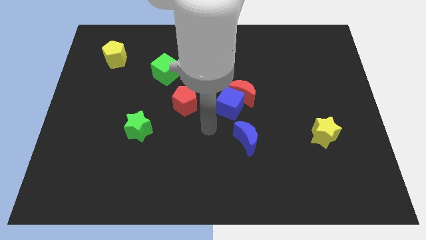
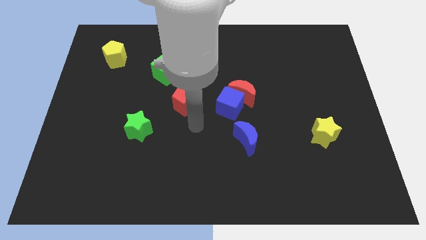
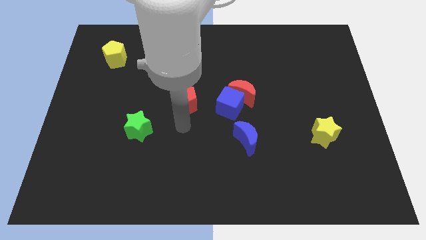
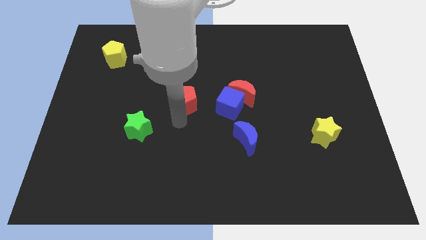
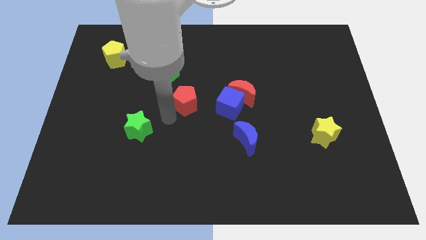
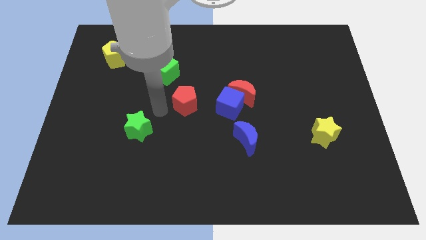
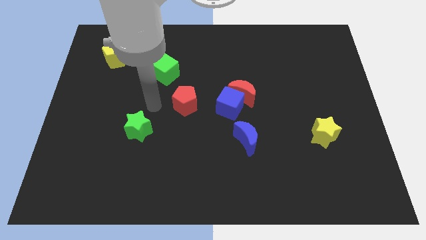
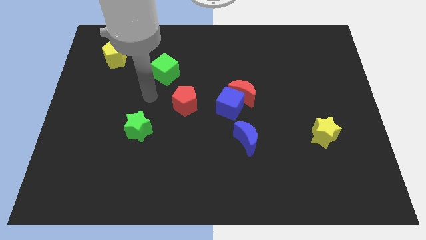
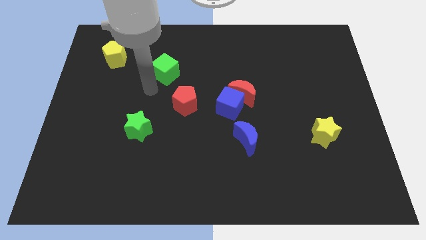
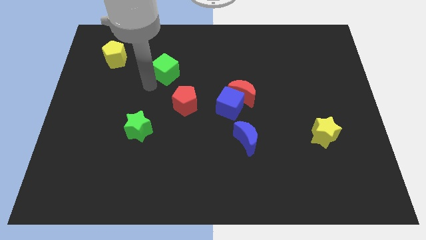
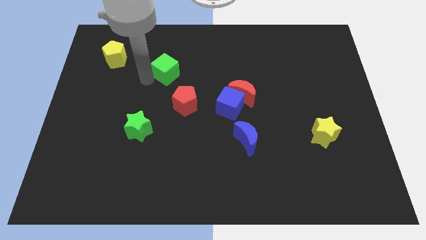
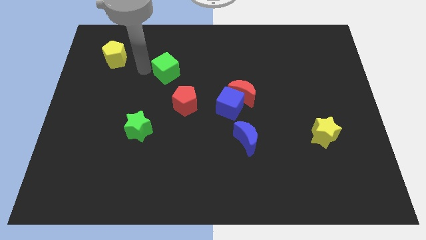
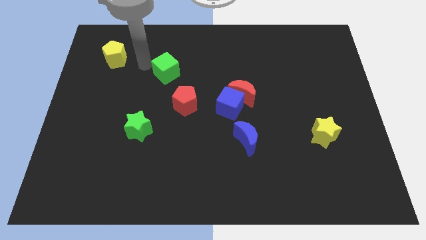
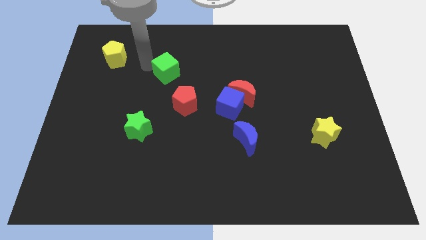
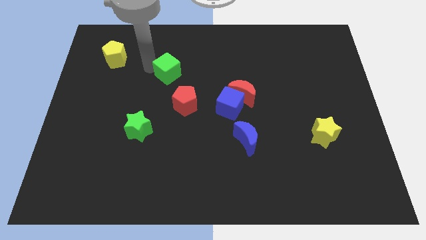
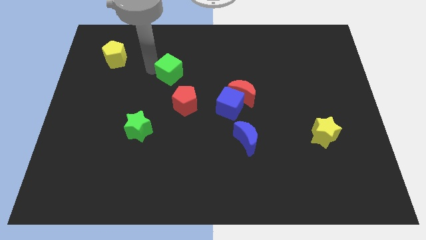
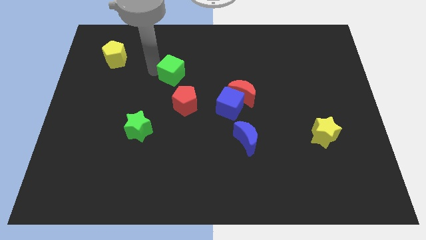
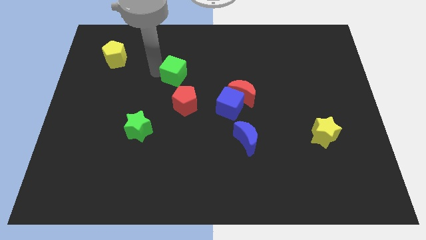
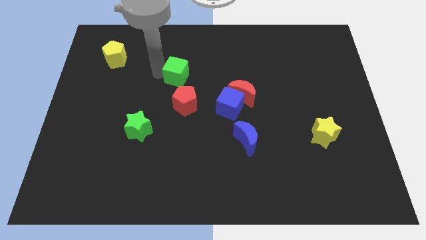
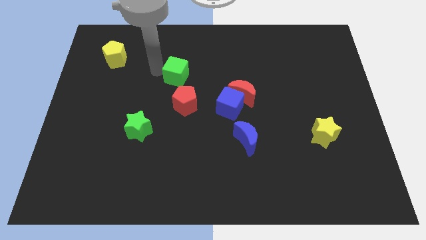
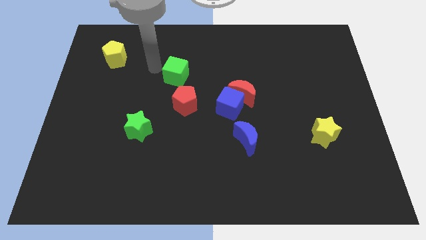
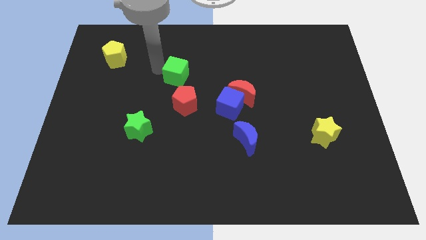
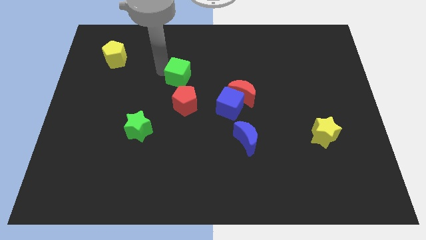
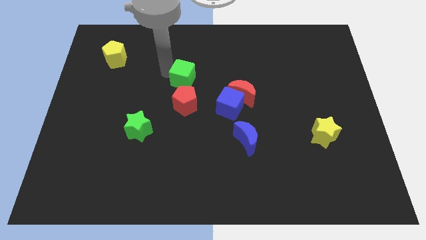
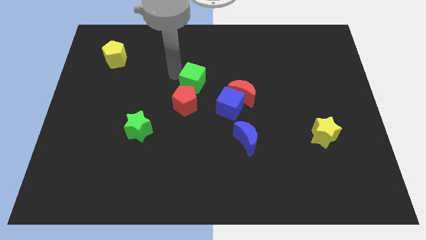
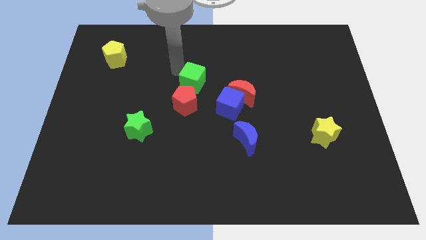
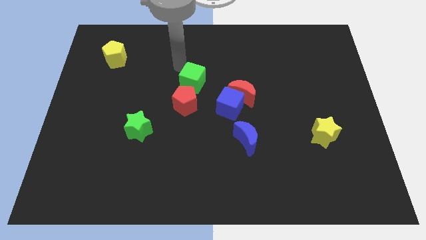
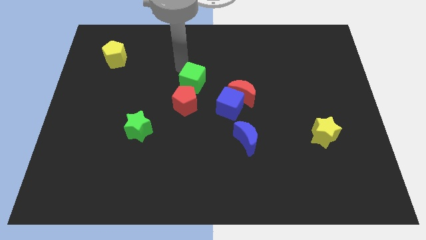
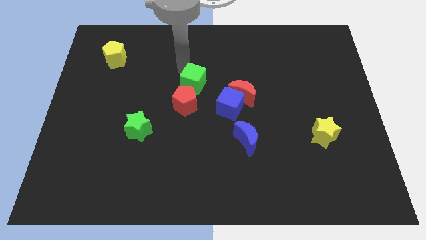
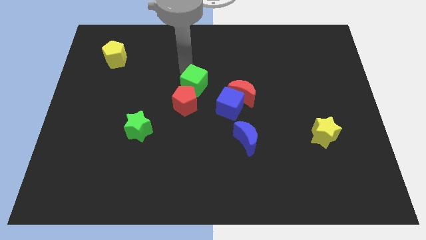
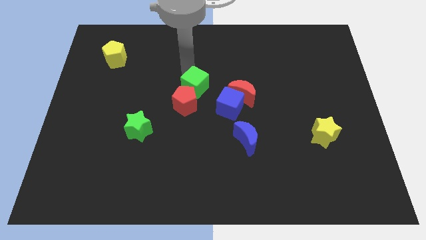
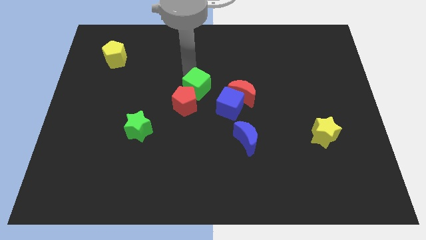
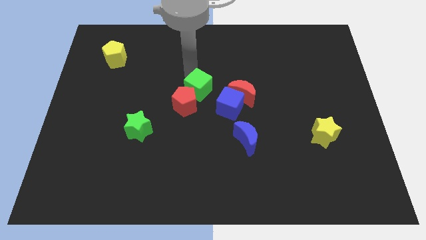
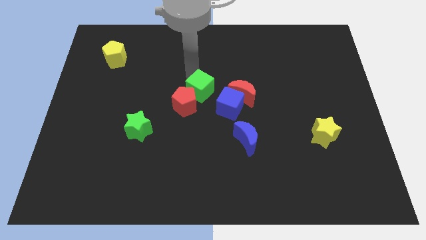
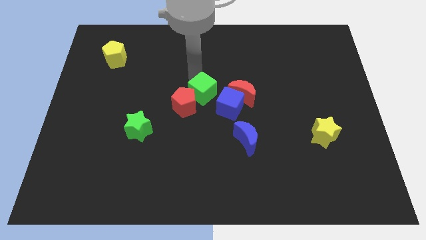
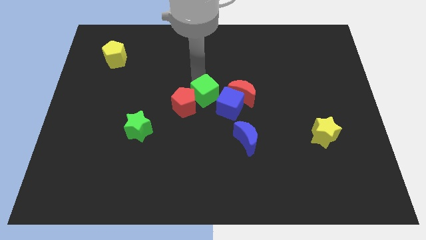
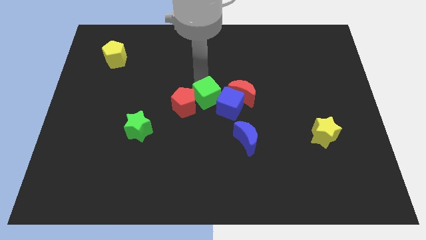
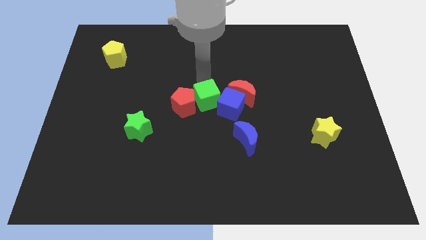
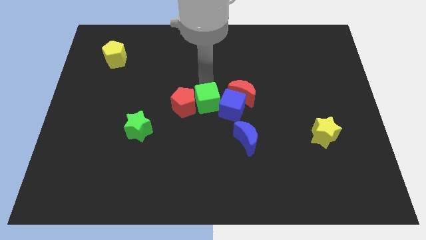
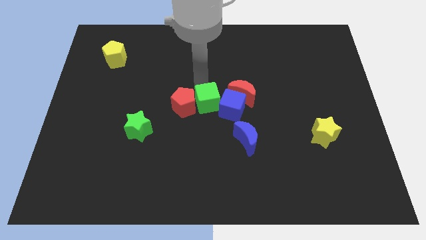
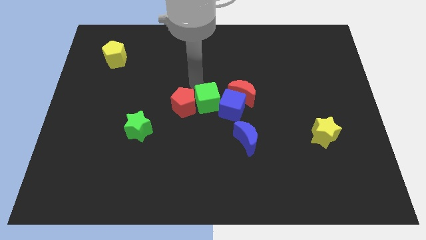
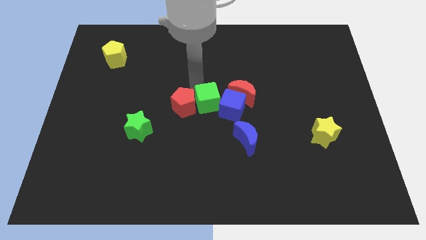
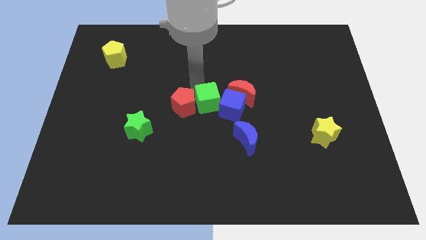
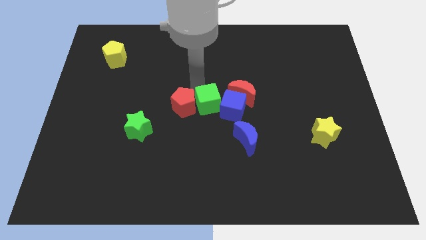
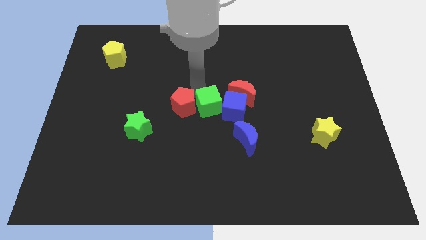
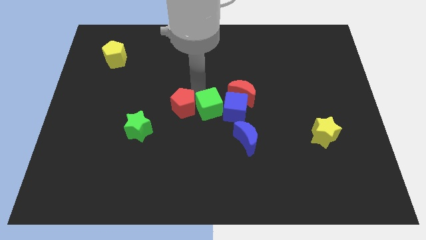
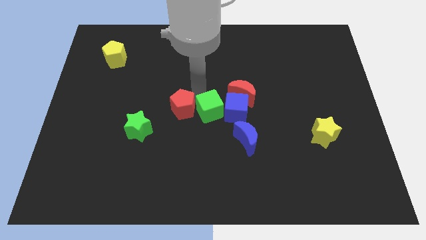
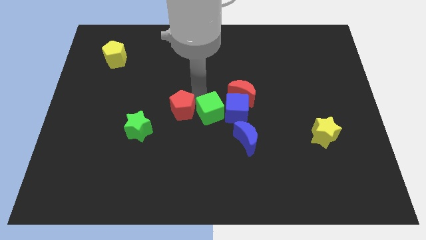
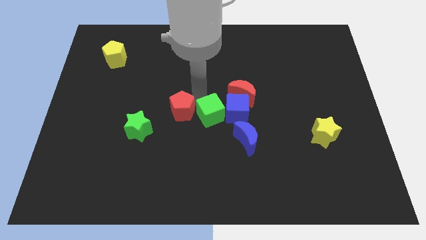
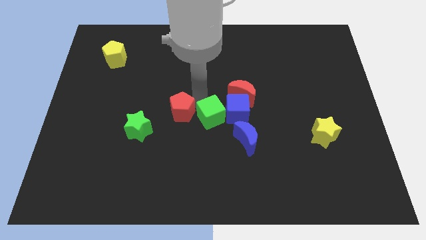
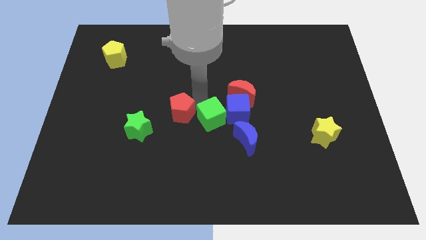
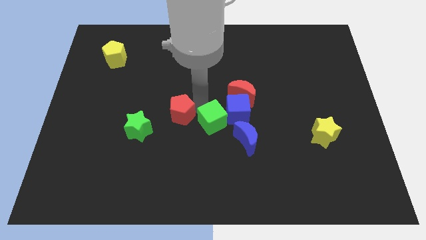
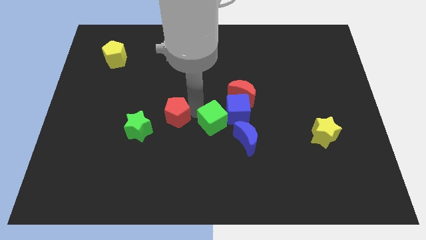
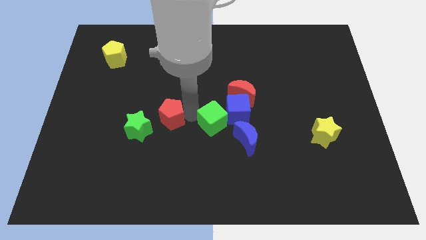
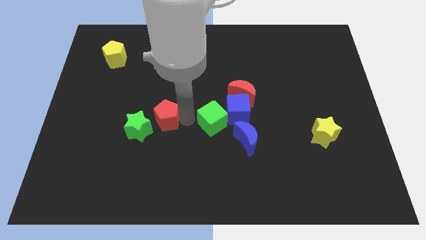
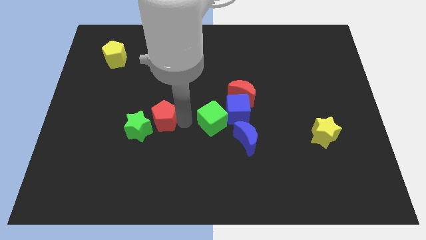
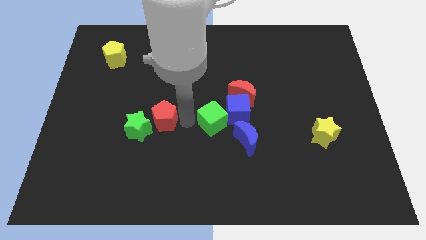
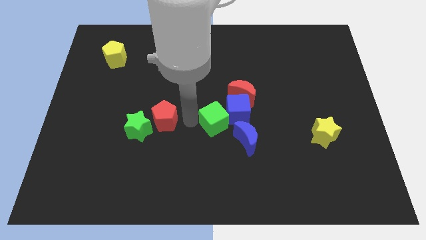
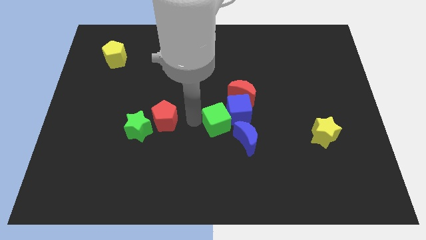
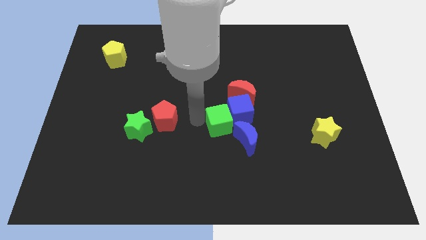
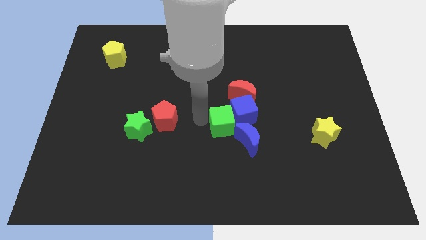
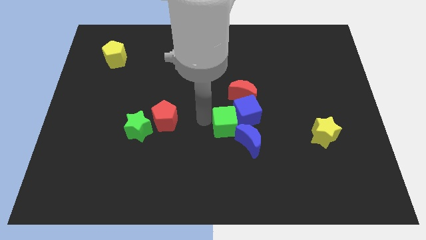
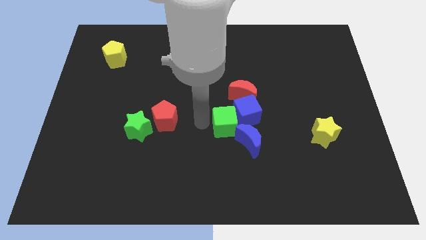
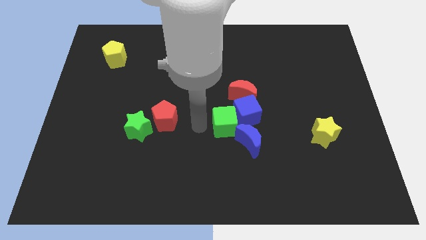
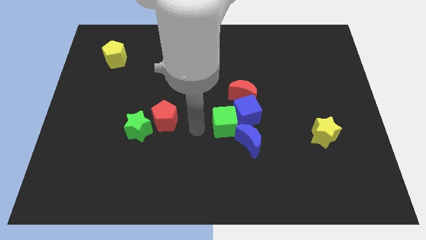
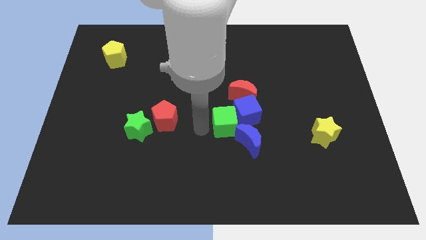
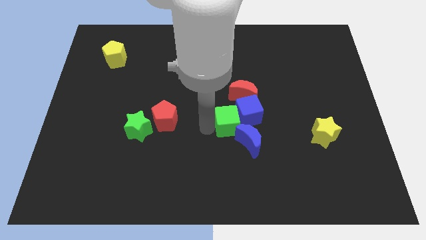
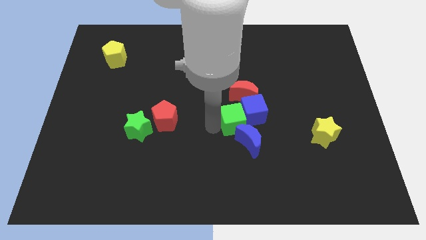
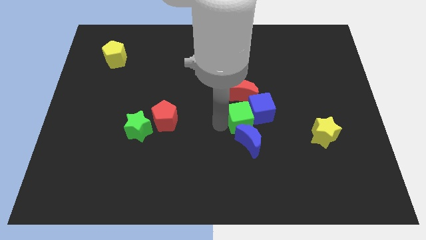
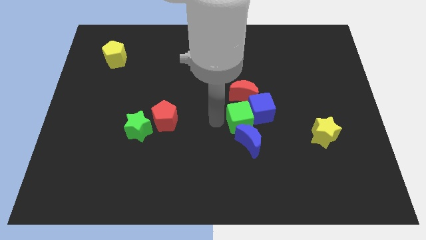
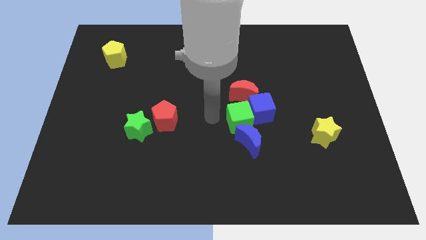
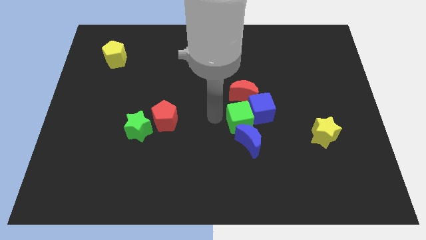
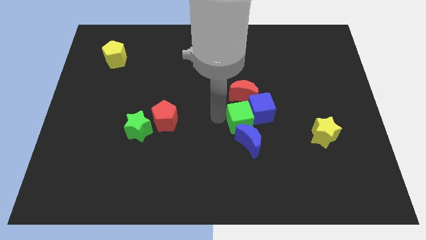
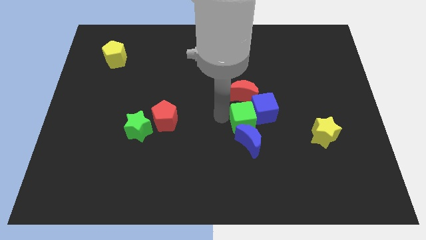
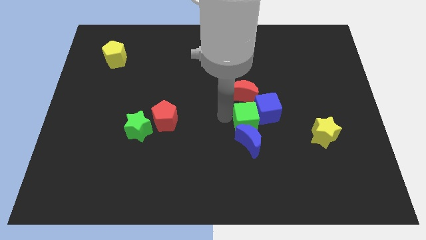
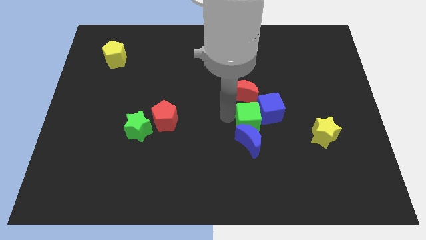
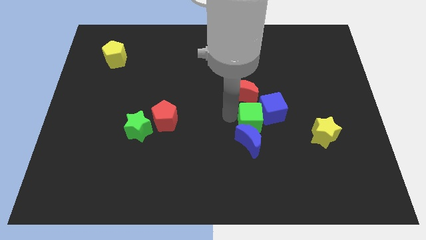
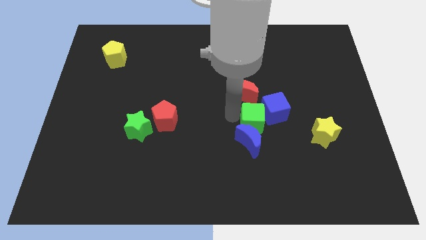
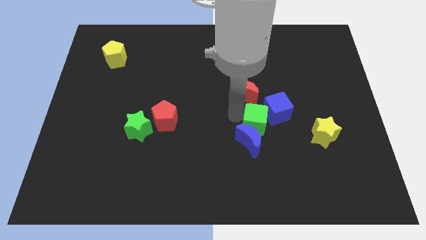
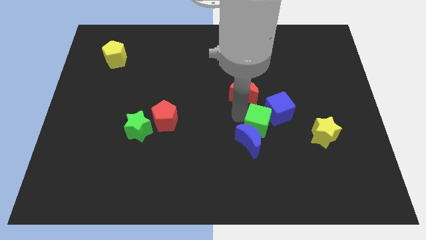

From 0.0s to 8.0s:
slide the green cube to the left side of the yellow star
